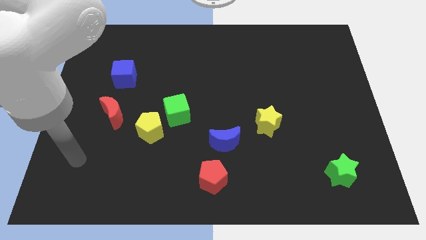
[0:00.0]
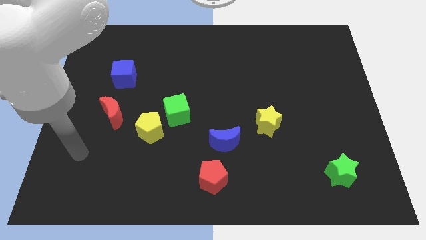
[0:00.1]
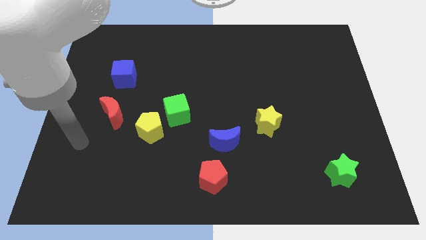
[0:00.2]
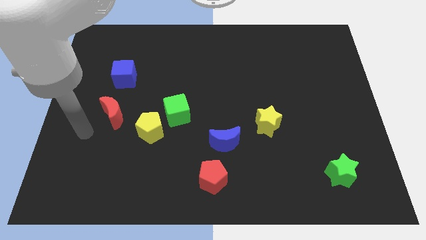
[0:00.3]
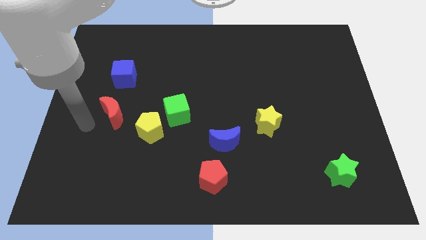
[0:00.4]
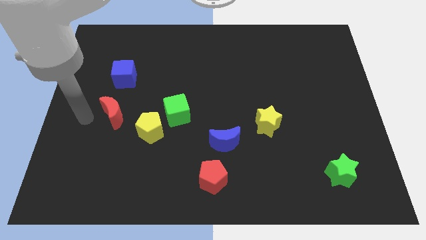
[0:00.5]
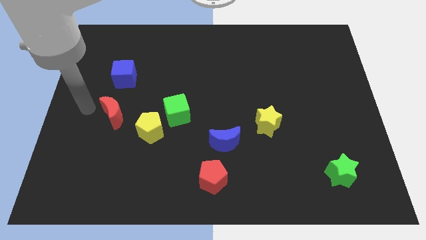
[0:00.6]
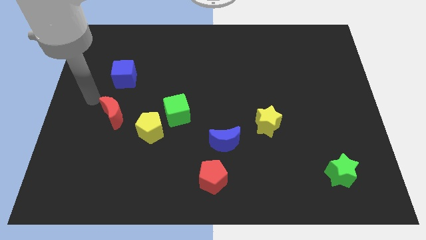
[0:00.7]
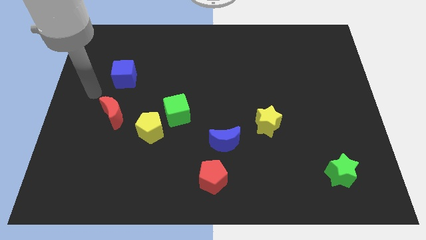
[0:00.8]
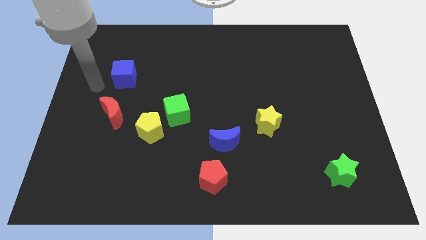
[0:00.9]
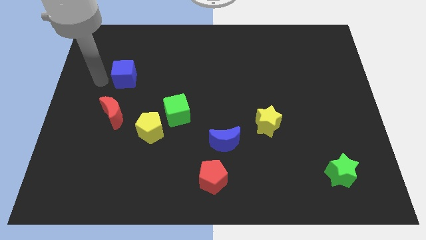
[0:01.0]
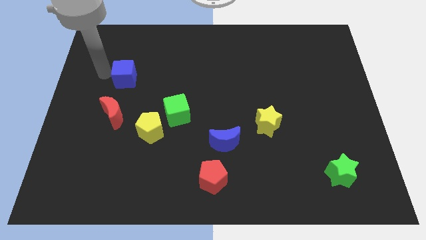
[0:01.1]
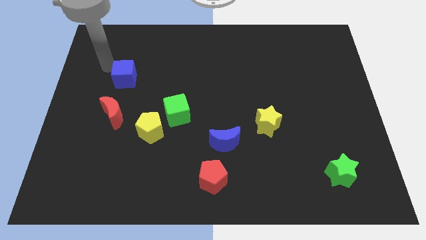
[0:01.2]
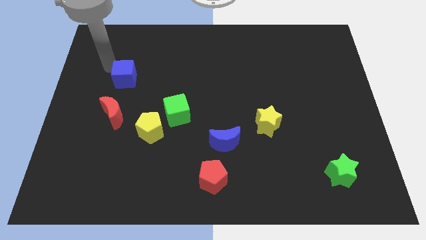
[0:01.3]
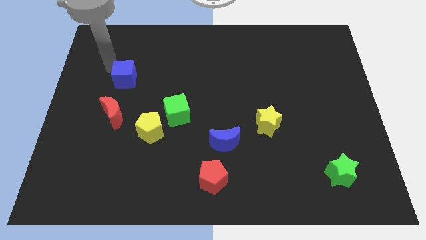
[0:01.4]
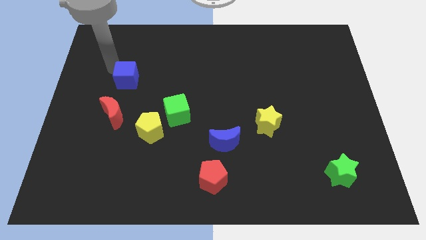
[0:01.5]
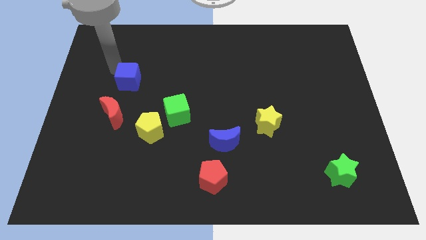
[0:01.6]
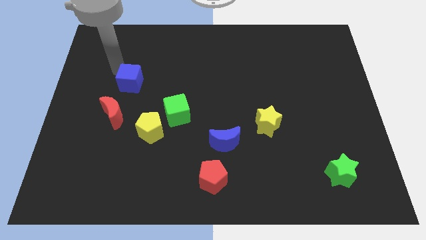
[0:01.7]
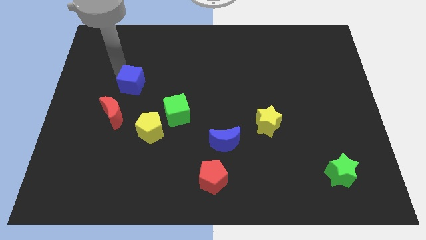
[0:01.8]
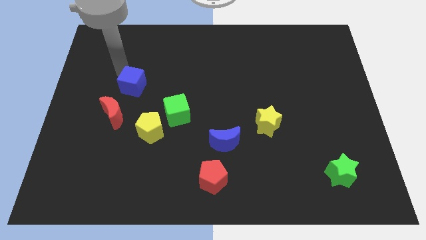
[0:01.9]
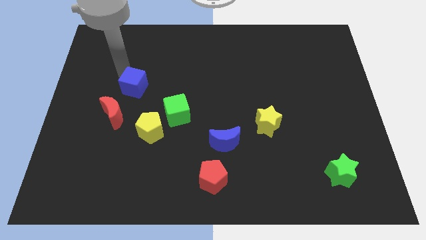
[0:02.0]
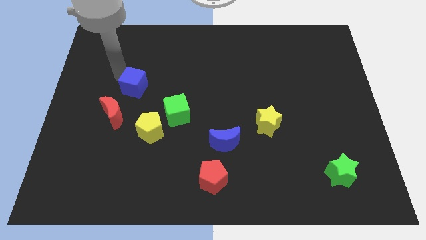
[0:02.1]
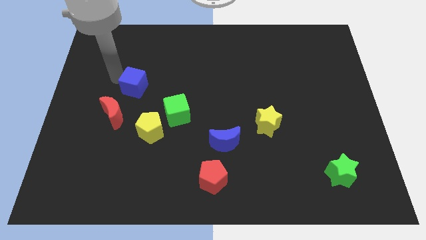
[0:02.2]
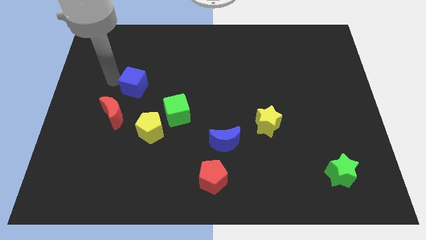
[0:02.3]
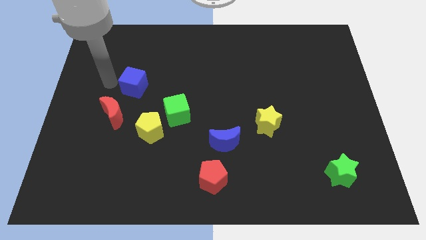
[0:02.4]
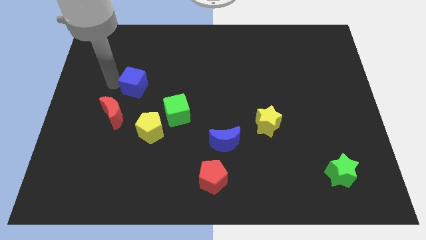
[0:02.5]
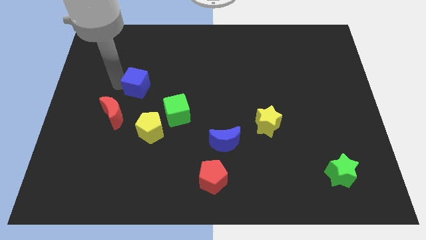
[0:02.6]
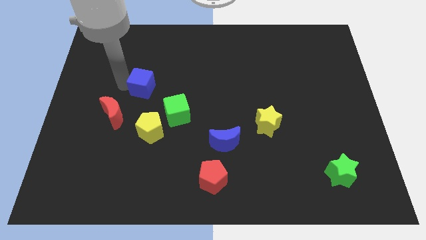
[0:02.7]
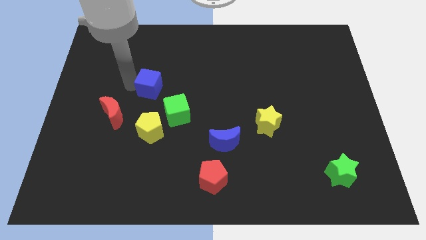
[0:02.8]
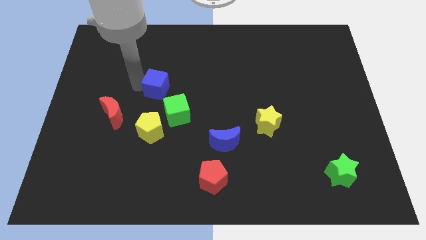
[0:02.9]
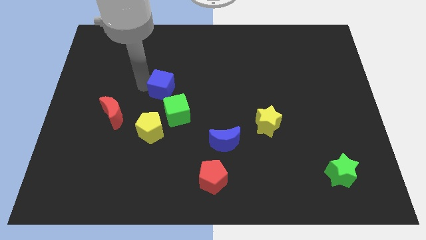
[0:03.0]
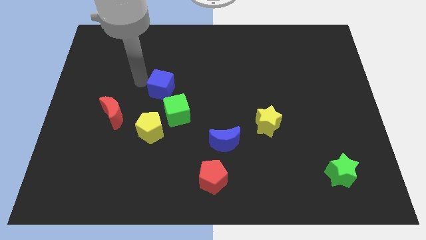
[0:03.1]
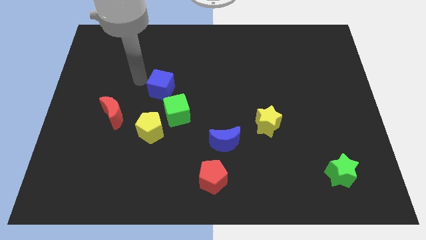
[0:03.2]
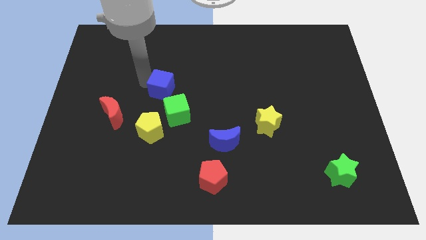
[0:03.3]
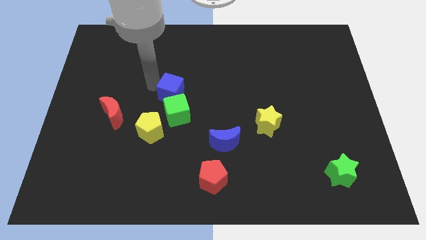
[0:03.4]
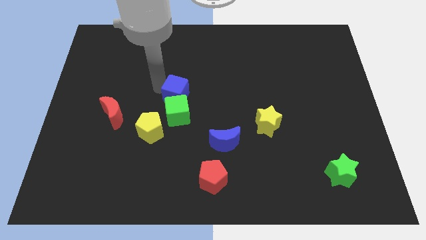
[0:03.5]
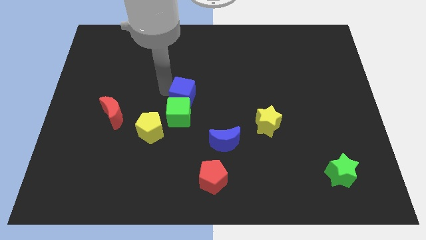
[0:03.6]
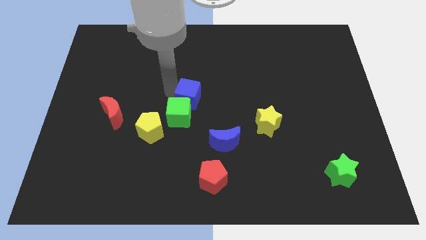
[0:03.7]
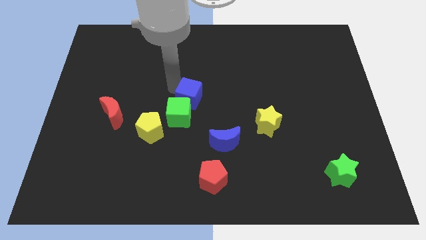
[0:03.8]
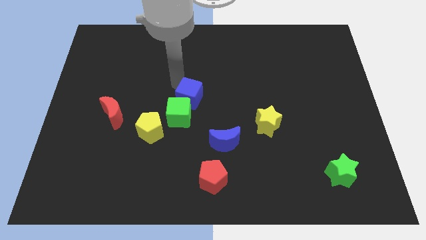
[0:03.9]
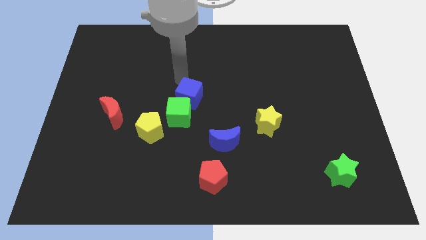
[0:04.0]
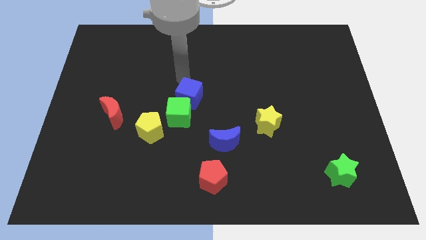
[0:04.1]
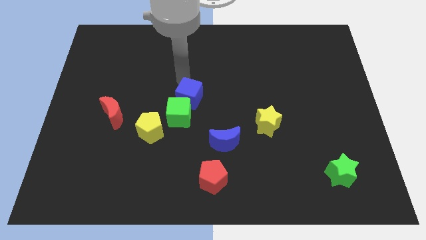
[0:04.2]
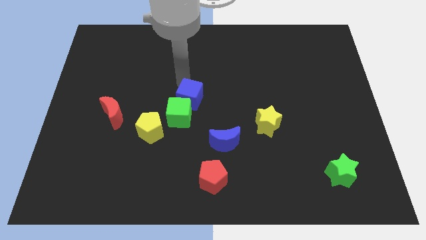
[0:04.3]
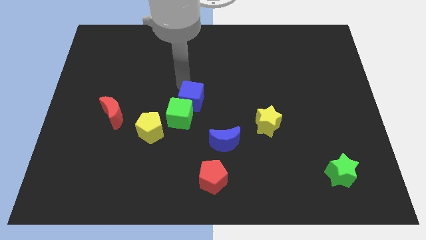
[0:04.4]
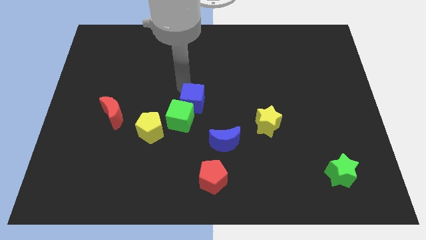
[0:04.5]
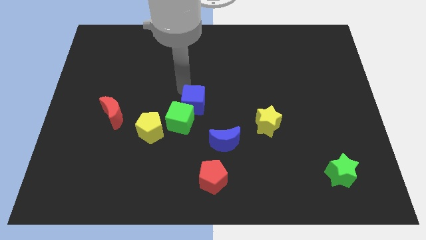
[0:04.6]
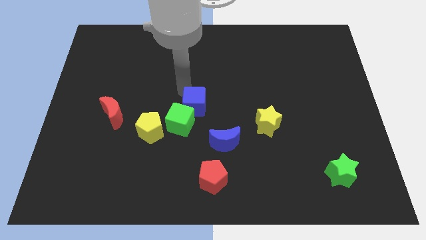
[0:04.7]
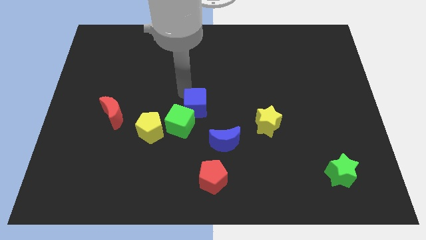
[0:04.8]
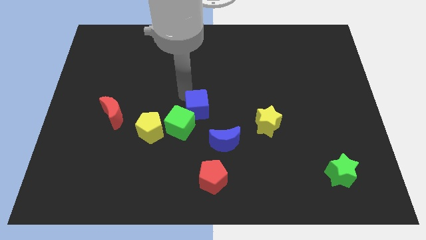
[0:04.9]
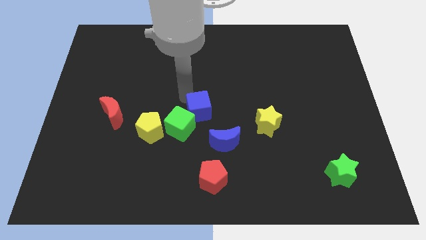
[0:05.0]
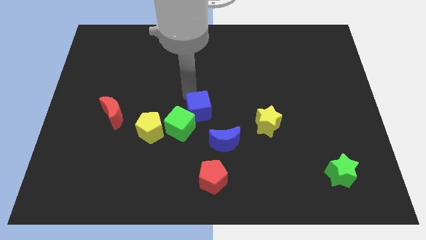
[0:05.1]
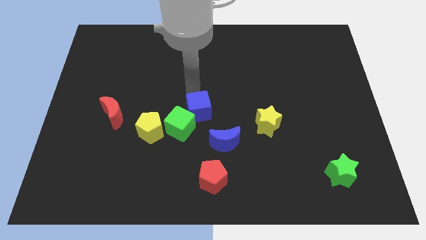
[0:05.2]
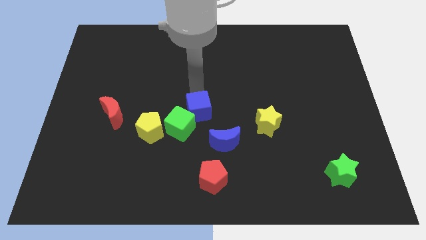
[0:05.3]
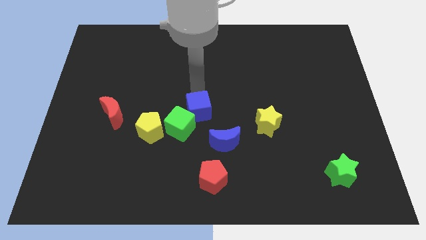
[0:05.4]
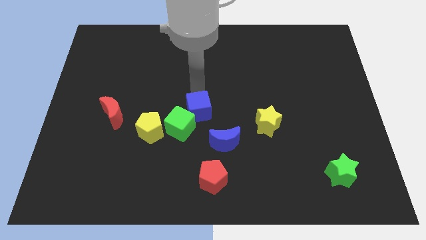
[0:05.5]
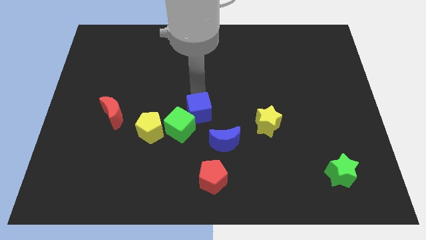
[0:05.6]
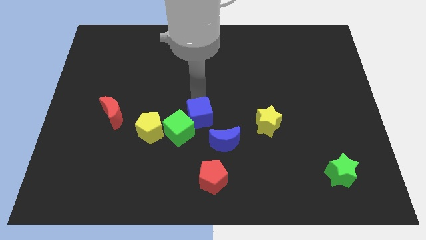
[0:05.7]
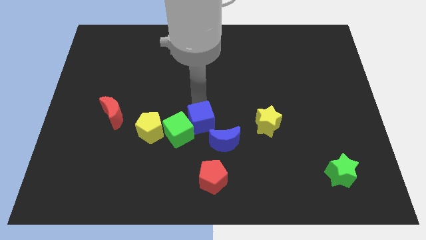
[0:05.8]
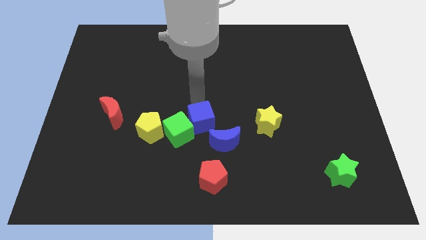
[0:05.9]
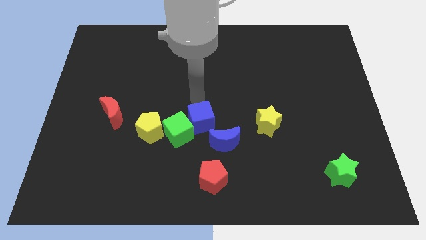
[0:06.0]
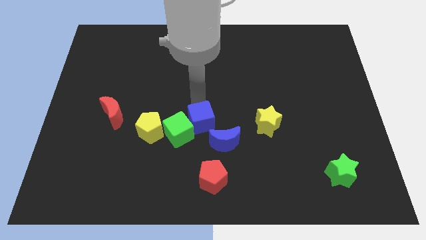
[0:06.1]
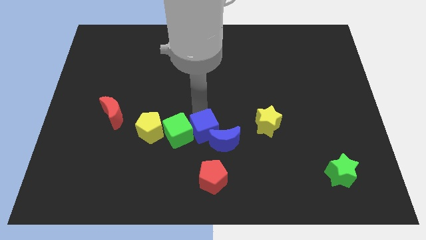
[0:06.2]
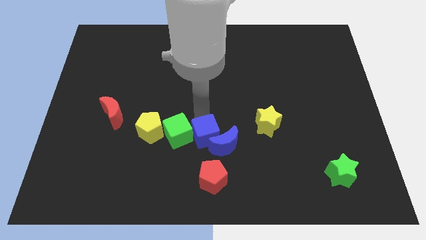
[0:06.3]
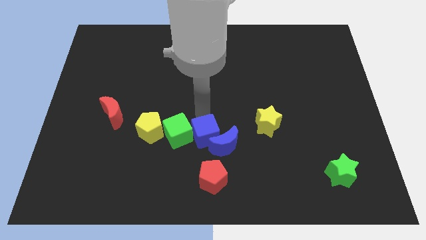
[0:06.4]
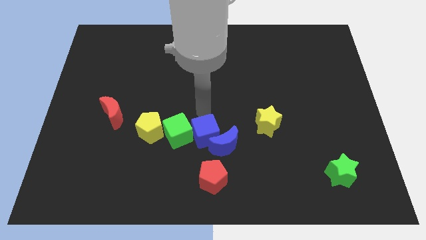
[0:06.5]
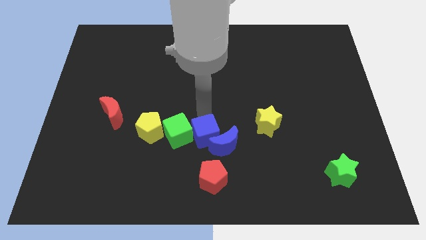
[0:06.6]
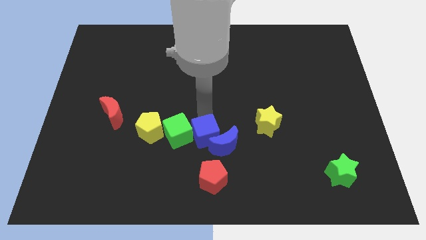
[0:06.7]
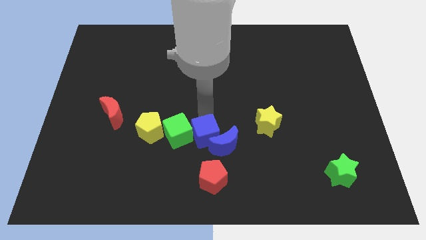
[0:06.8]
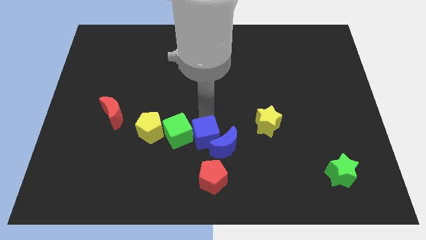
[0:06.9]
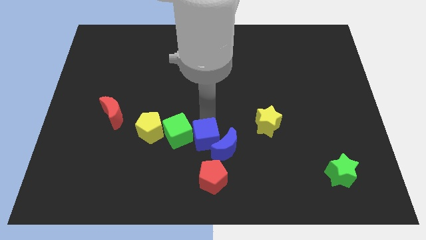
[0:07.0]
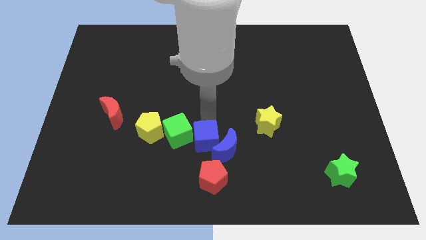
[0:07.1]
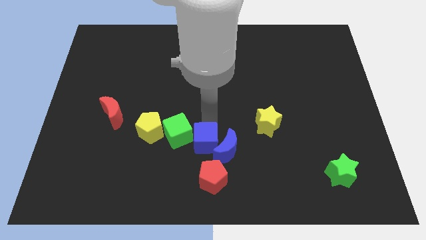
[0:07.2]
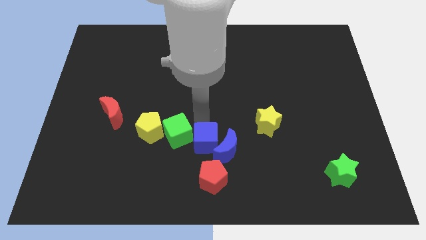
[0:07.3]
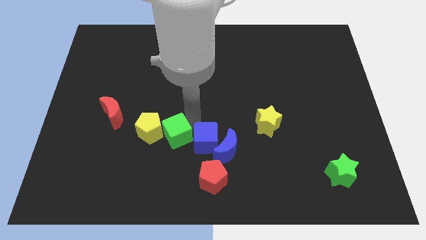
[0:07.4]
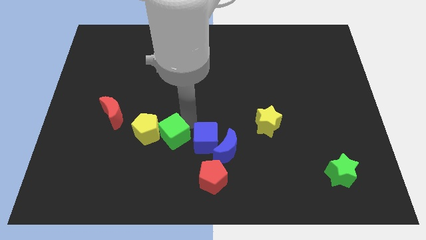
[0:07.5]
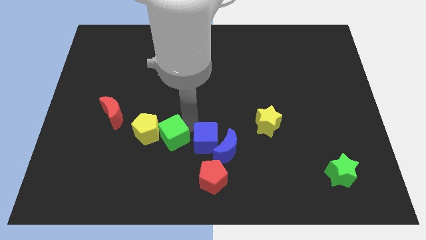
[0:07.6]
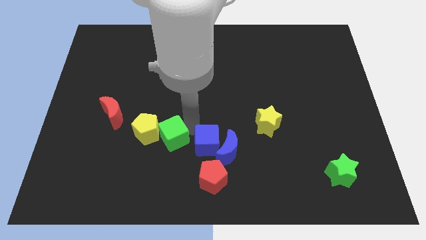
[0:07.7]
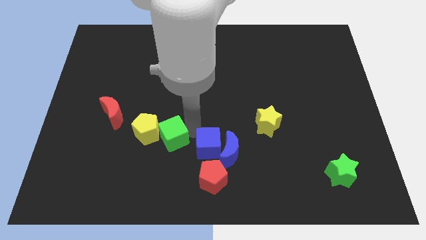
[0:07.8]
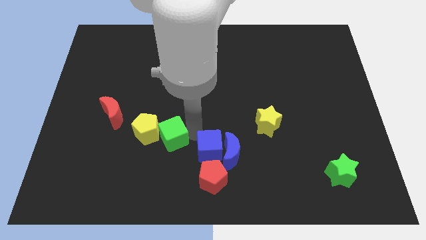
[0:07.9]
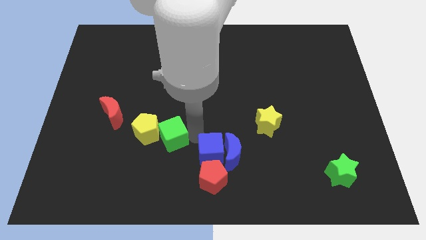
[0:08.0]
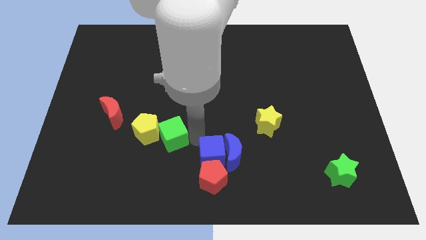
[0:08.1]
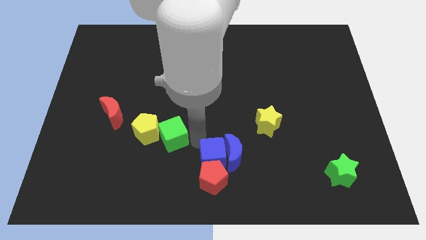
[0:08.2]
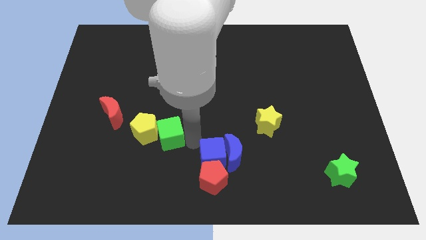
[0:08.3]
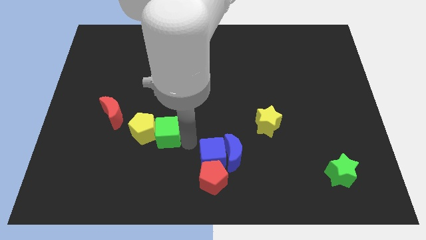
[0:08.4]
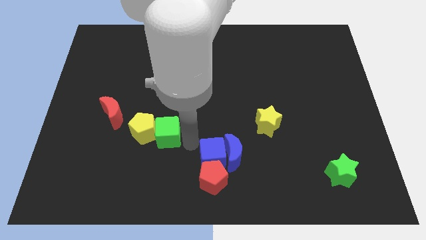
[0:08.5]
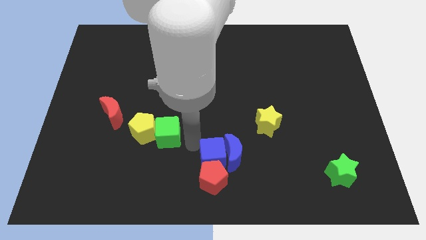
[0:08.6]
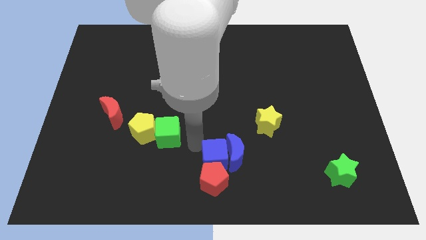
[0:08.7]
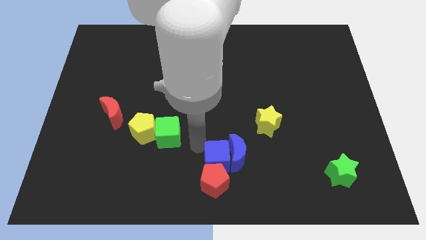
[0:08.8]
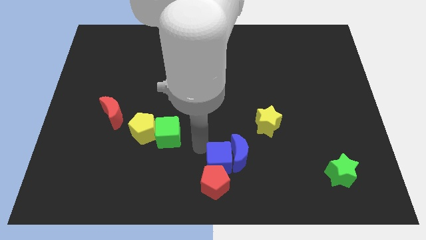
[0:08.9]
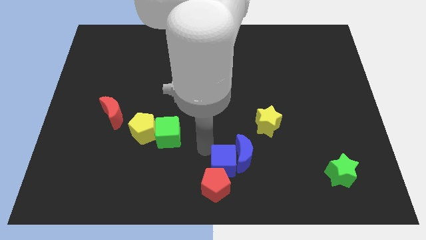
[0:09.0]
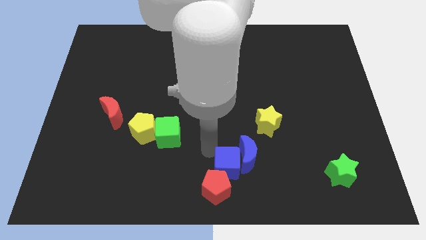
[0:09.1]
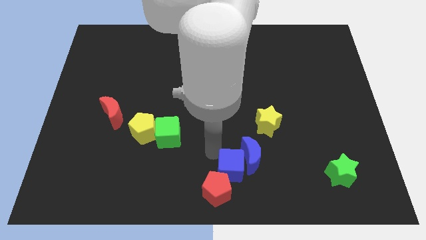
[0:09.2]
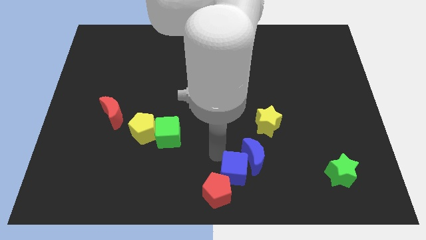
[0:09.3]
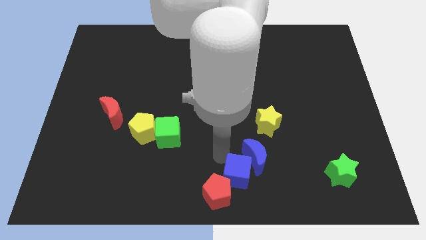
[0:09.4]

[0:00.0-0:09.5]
slide the blue cube to the right of the red pentagon
